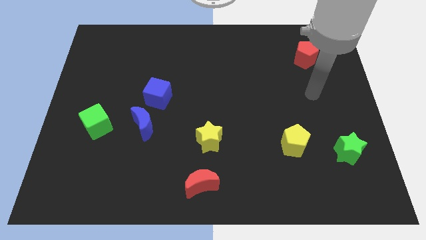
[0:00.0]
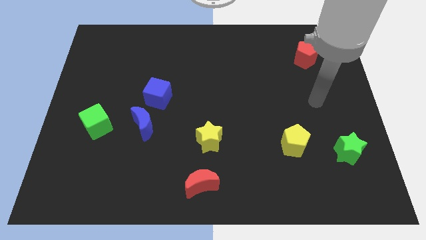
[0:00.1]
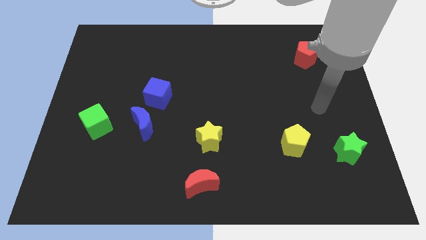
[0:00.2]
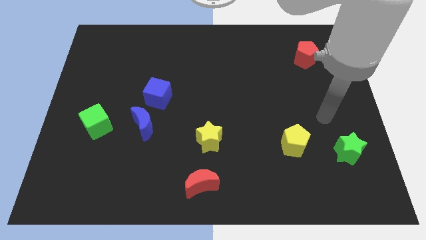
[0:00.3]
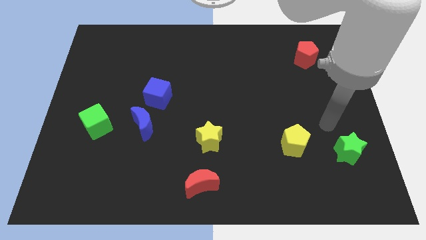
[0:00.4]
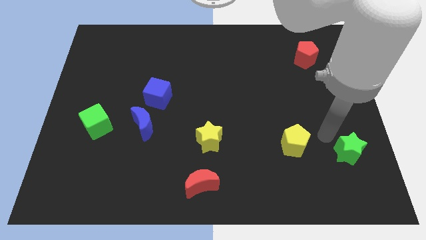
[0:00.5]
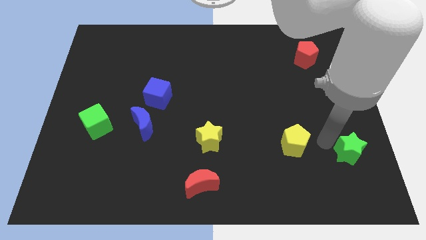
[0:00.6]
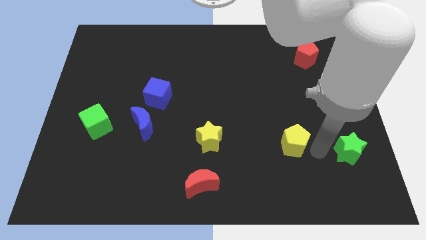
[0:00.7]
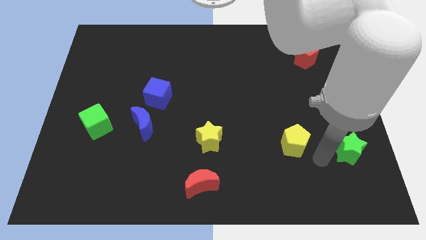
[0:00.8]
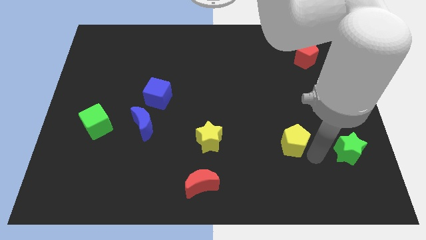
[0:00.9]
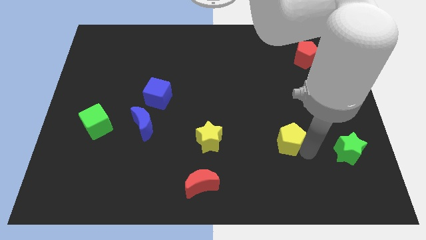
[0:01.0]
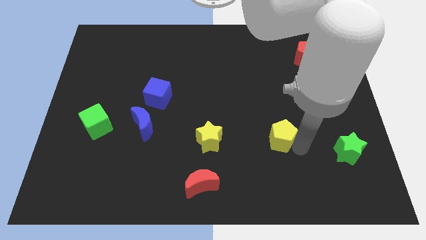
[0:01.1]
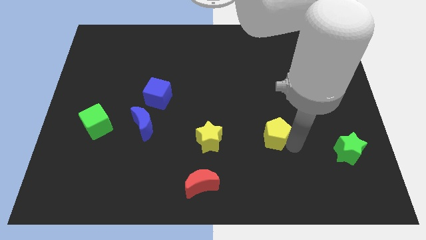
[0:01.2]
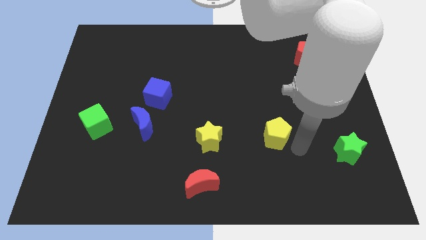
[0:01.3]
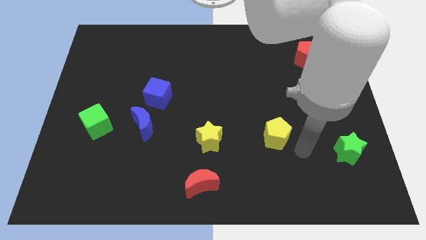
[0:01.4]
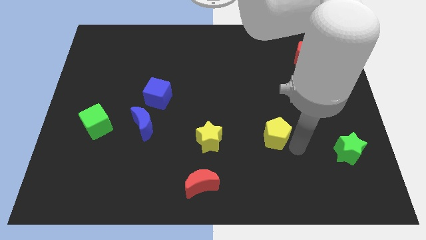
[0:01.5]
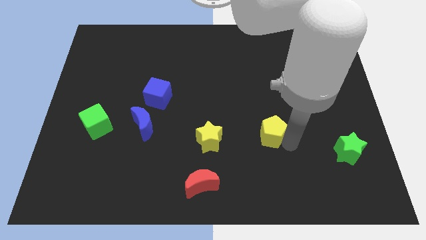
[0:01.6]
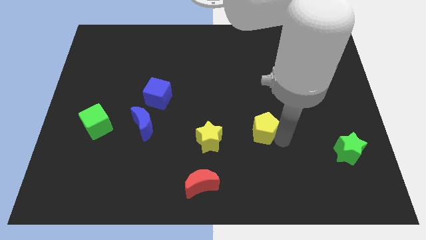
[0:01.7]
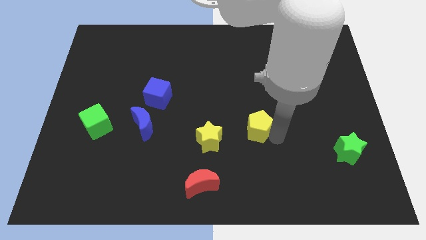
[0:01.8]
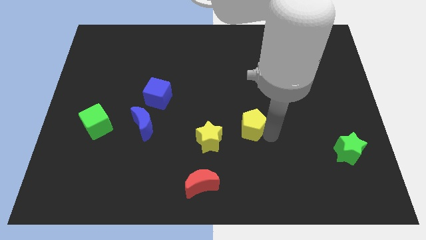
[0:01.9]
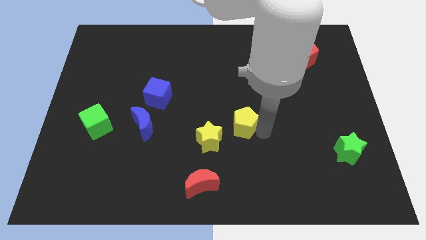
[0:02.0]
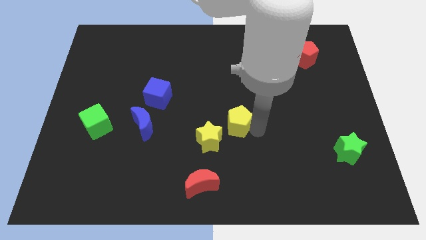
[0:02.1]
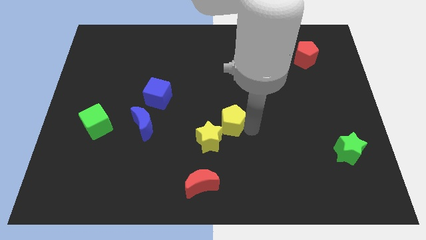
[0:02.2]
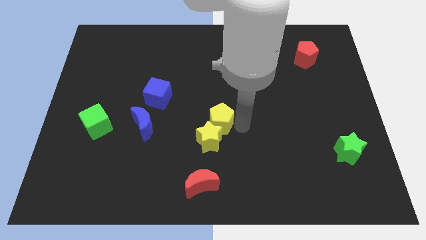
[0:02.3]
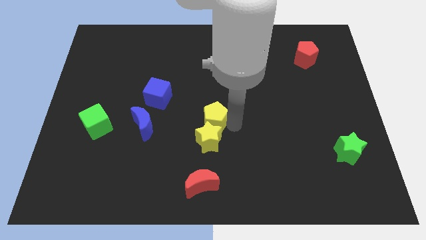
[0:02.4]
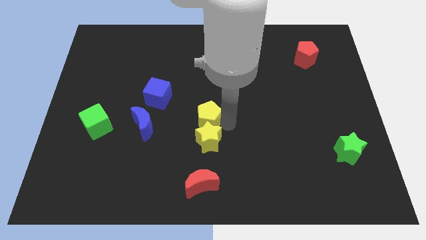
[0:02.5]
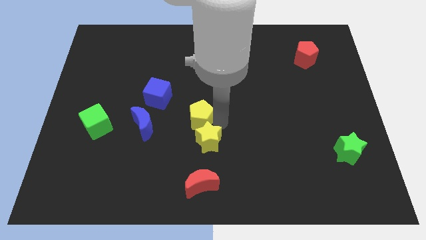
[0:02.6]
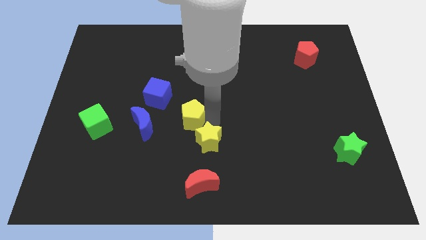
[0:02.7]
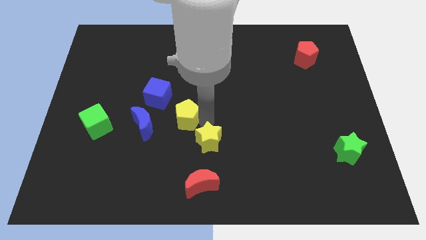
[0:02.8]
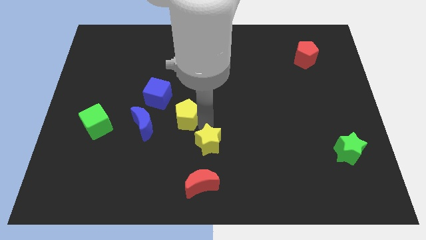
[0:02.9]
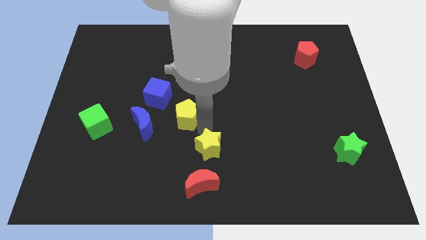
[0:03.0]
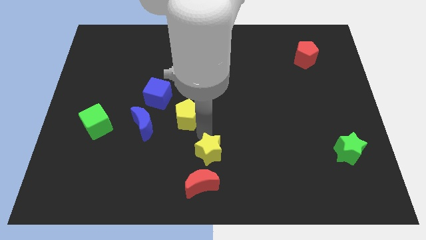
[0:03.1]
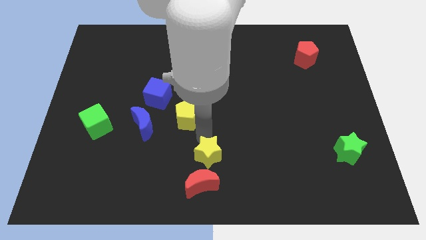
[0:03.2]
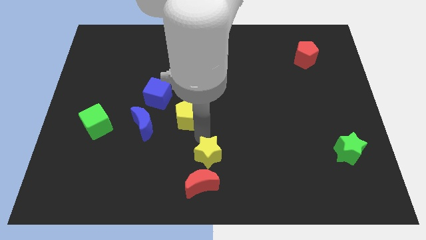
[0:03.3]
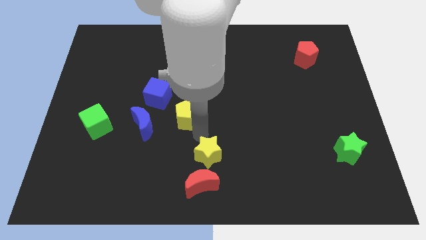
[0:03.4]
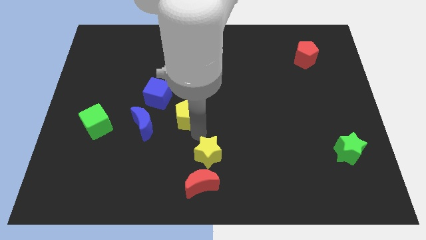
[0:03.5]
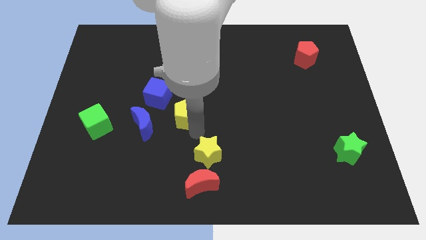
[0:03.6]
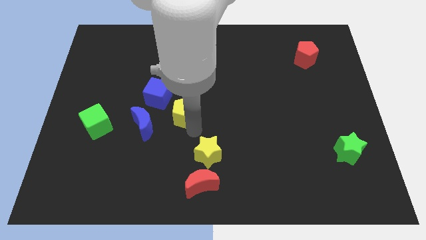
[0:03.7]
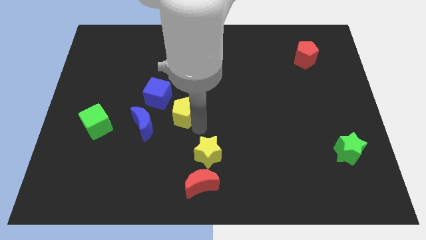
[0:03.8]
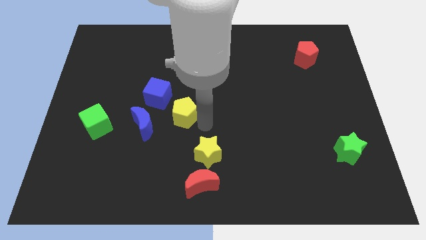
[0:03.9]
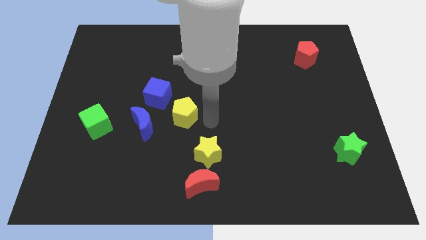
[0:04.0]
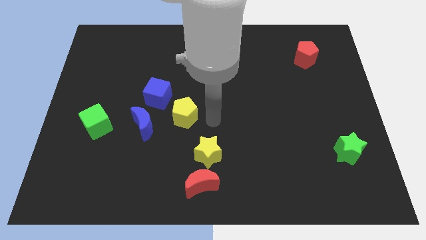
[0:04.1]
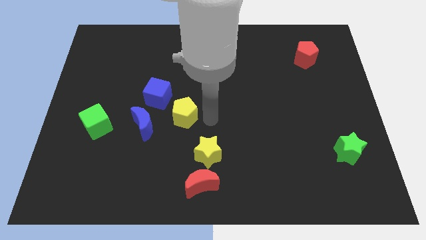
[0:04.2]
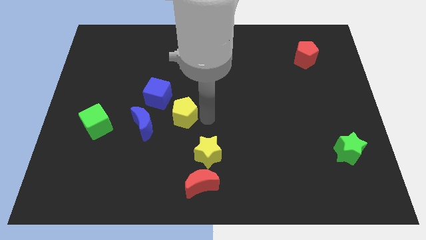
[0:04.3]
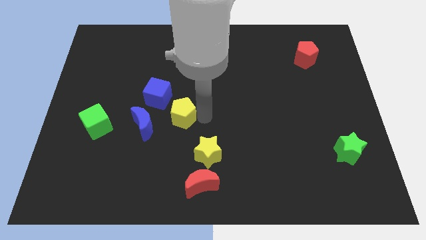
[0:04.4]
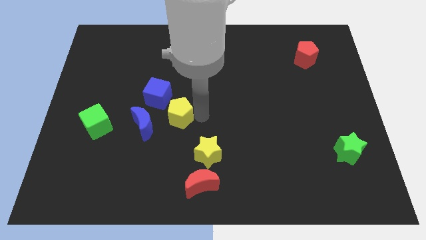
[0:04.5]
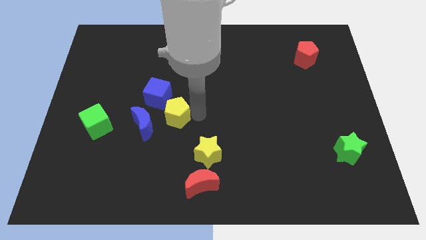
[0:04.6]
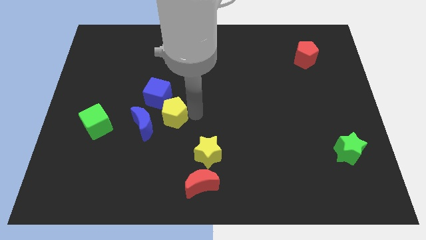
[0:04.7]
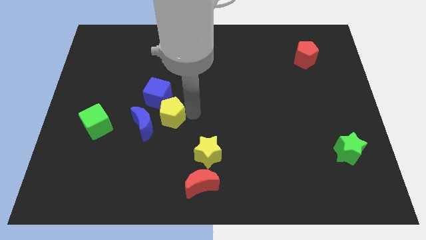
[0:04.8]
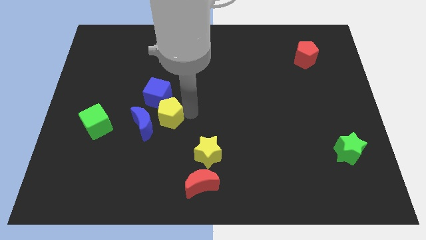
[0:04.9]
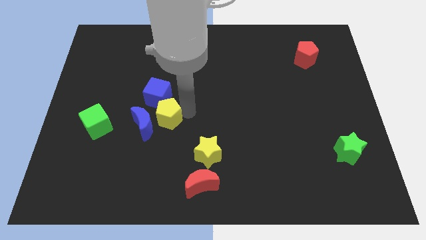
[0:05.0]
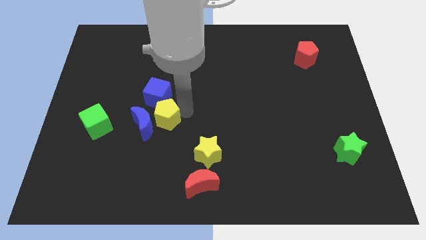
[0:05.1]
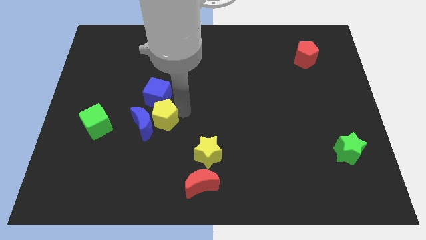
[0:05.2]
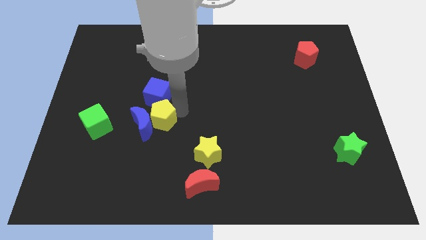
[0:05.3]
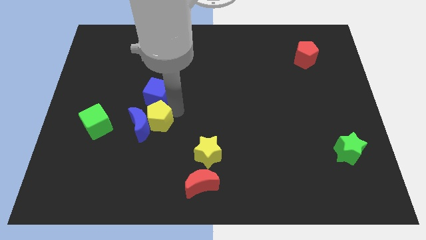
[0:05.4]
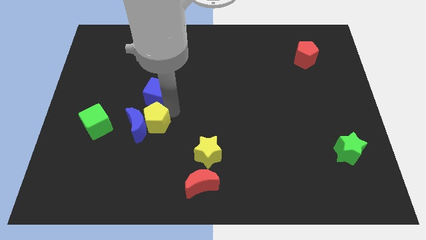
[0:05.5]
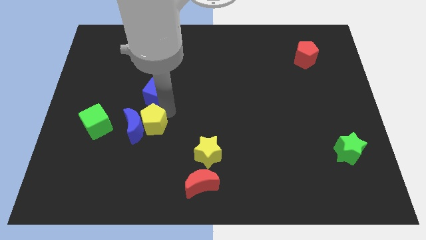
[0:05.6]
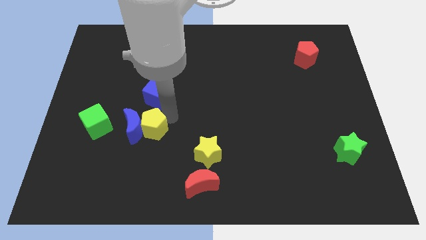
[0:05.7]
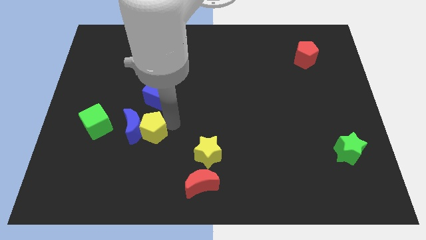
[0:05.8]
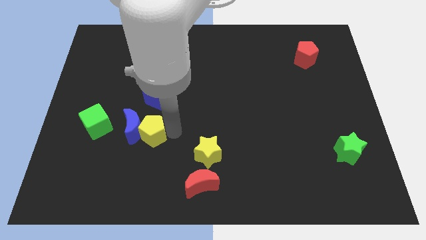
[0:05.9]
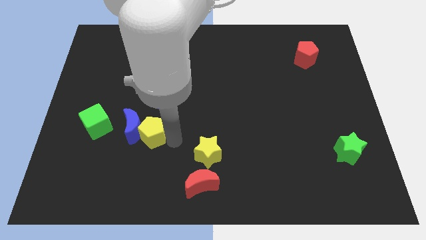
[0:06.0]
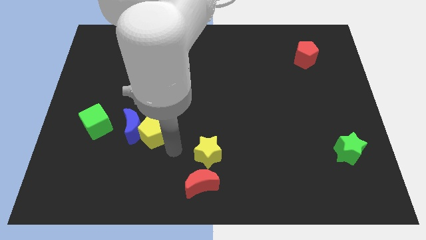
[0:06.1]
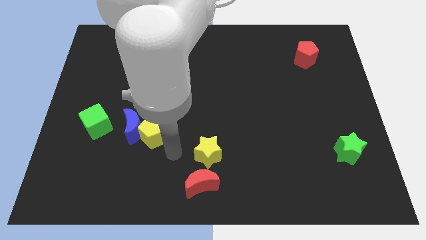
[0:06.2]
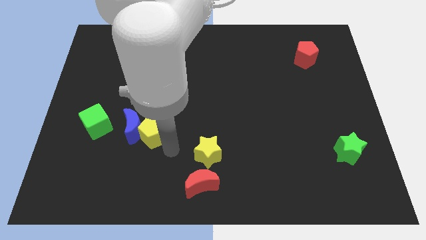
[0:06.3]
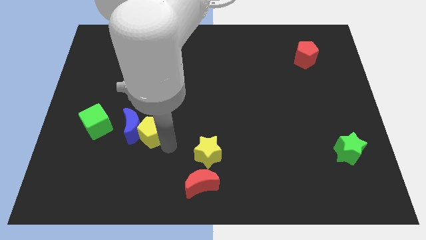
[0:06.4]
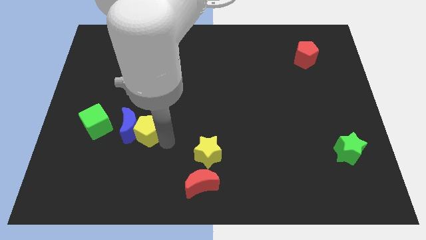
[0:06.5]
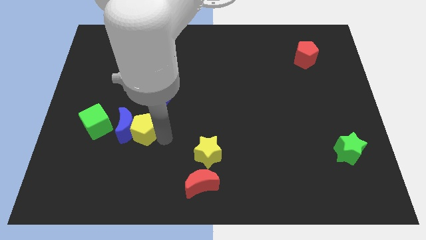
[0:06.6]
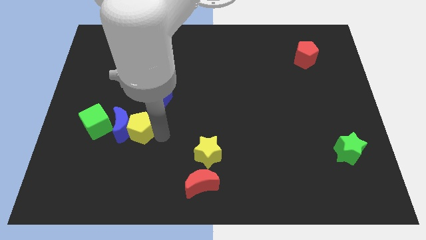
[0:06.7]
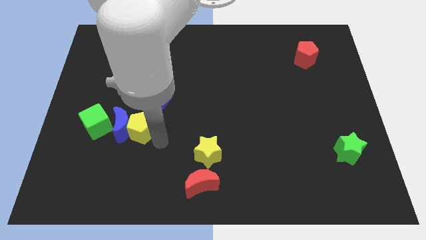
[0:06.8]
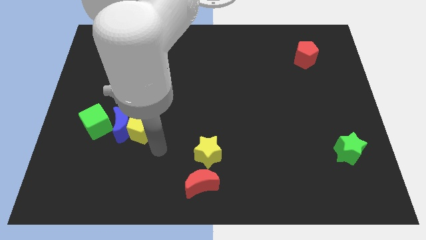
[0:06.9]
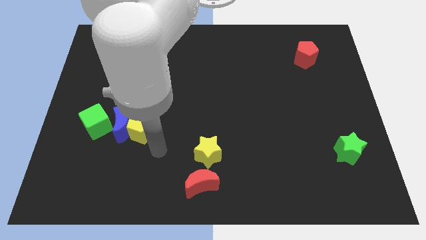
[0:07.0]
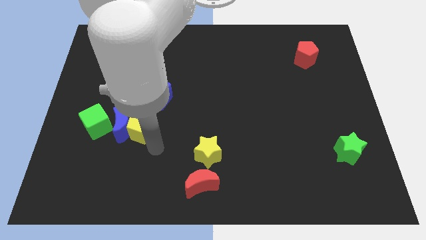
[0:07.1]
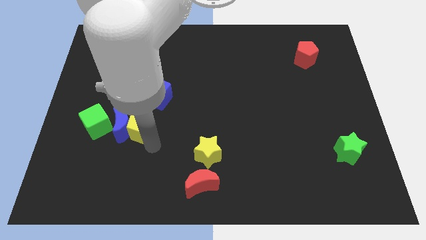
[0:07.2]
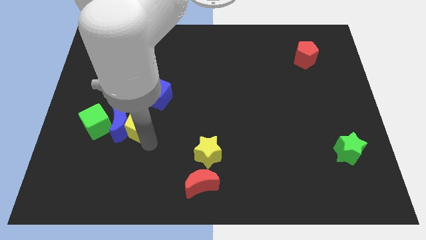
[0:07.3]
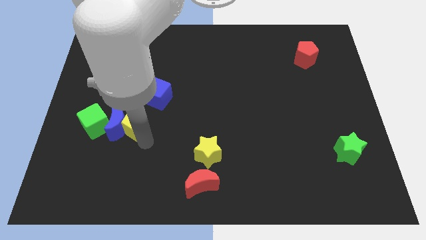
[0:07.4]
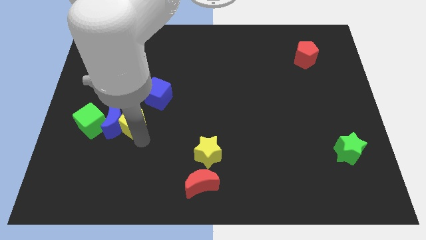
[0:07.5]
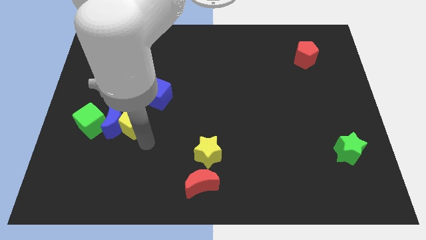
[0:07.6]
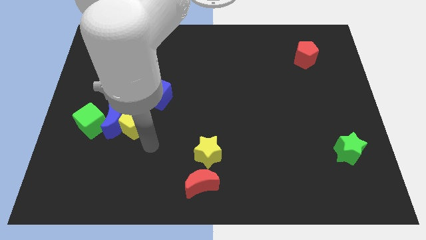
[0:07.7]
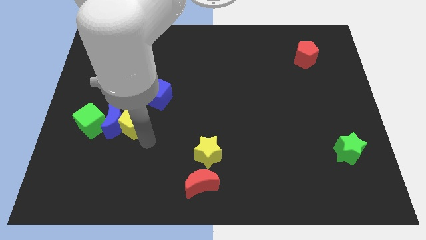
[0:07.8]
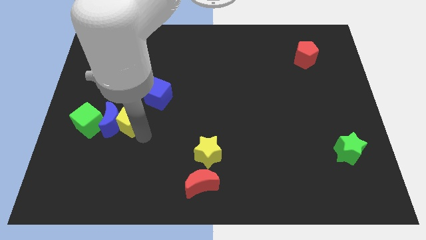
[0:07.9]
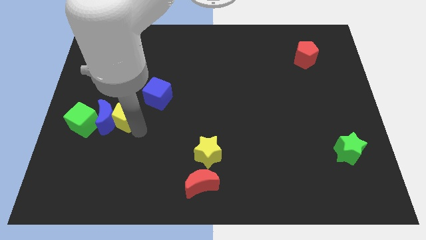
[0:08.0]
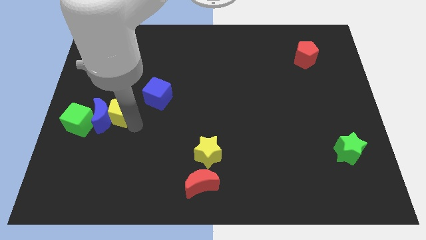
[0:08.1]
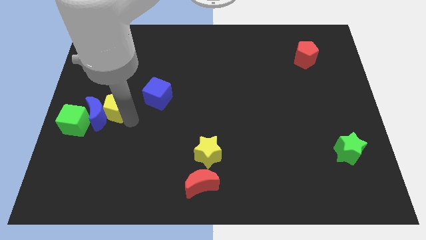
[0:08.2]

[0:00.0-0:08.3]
move the yellow pentagon diagonally up and to the right of the green cube
